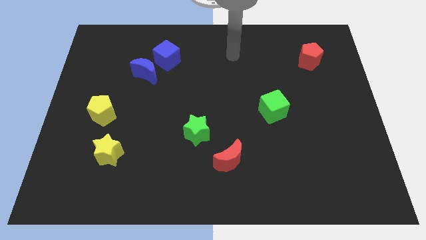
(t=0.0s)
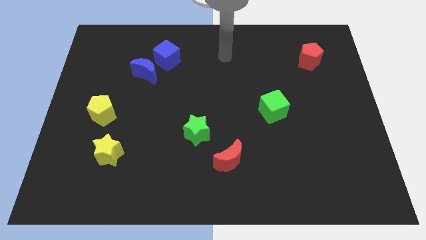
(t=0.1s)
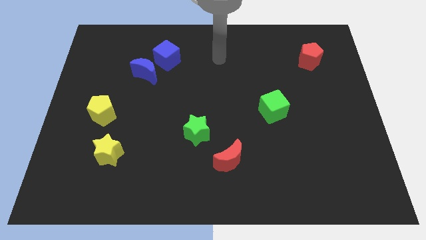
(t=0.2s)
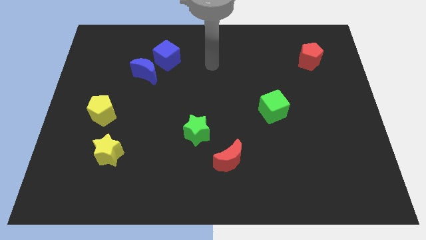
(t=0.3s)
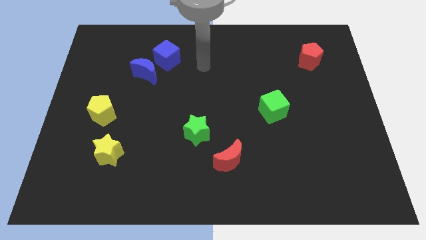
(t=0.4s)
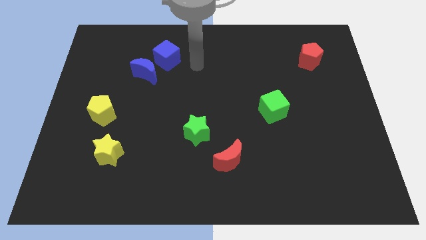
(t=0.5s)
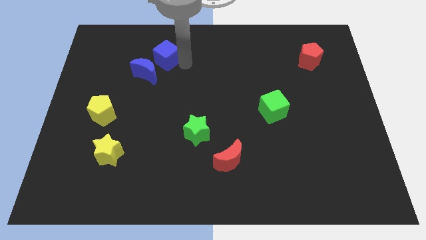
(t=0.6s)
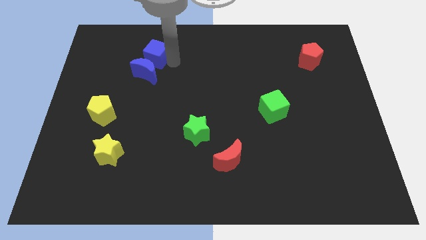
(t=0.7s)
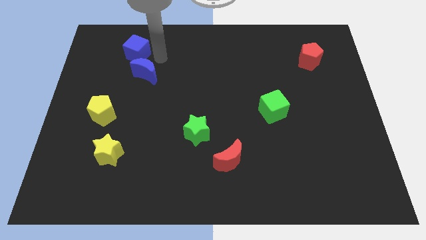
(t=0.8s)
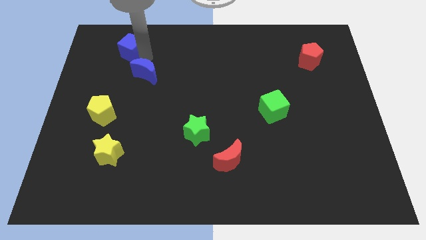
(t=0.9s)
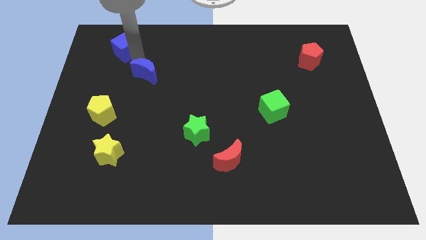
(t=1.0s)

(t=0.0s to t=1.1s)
separate the blue moon from the blue cube

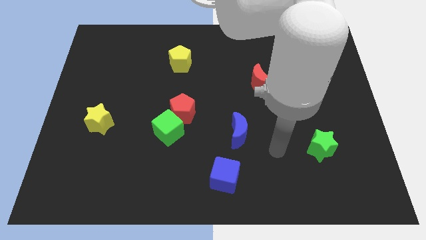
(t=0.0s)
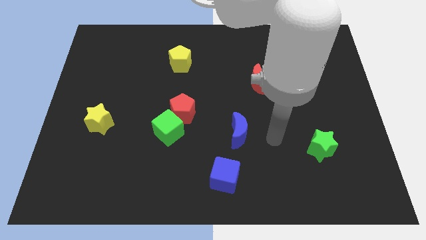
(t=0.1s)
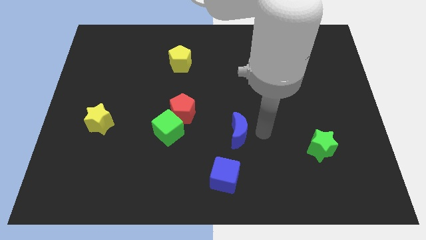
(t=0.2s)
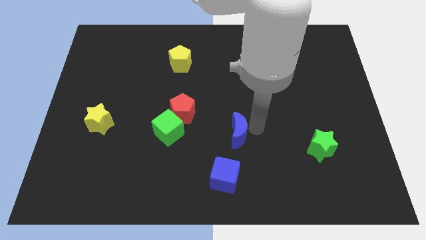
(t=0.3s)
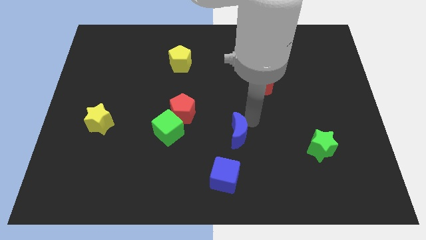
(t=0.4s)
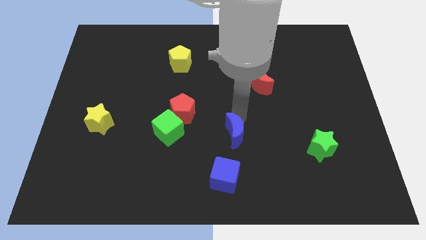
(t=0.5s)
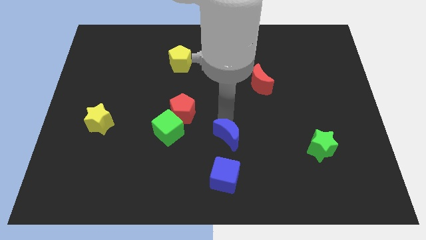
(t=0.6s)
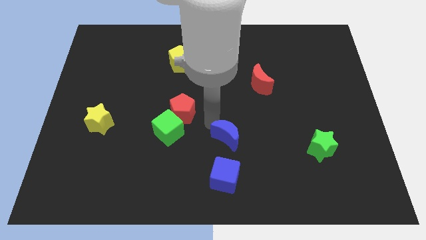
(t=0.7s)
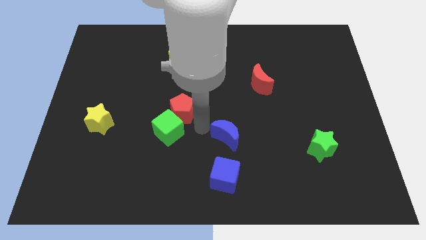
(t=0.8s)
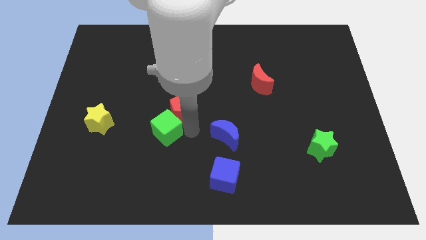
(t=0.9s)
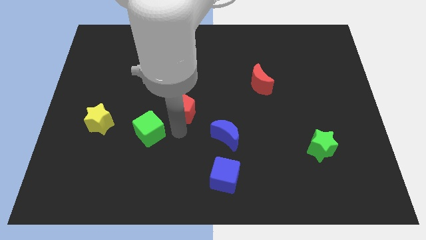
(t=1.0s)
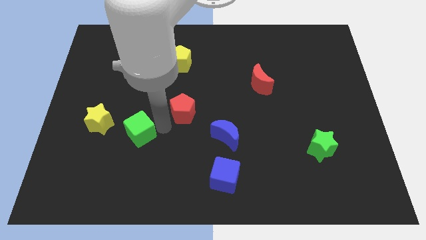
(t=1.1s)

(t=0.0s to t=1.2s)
pull the red pentagon apart from the green cube

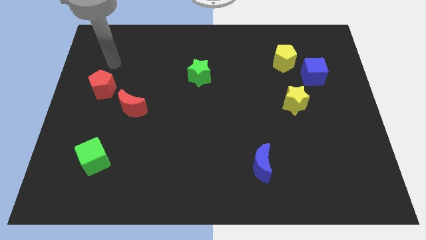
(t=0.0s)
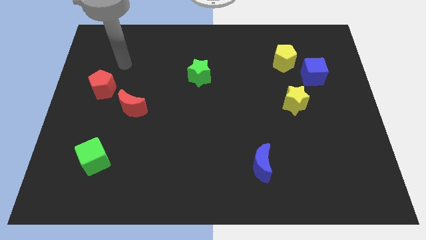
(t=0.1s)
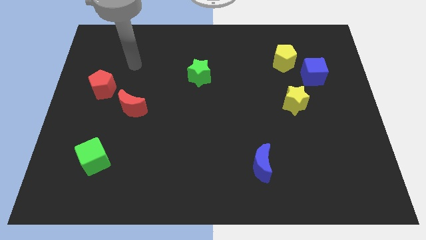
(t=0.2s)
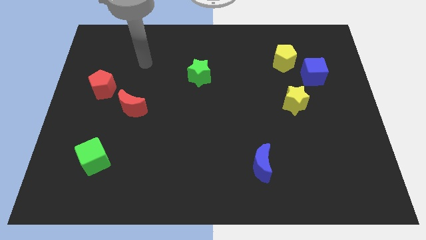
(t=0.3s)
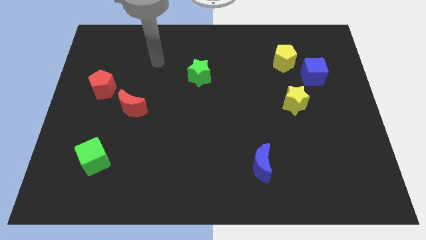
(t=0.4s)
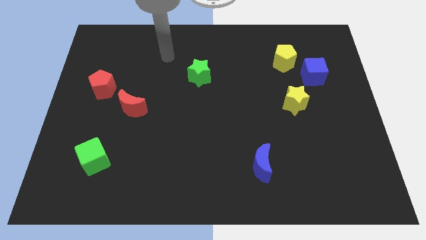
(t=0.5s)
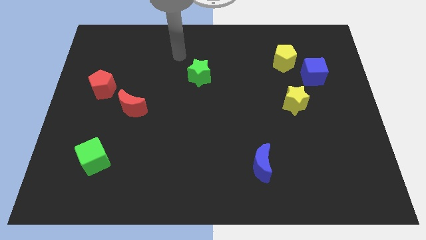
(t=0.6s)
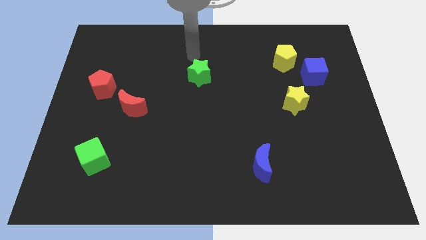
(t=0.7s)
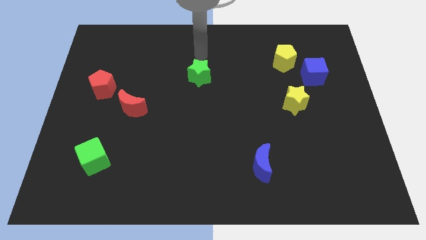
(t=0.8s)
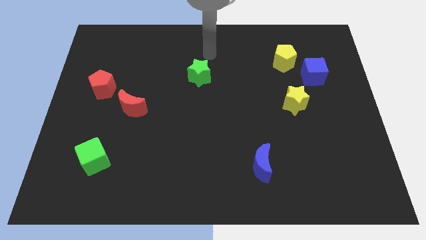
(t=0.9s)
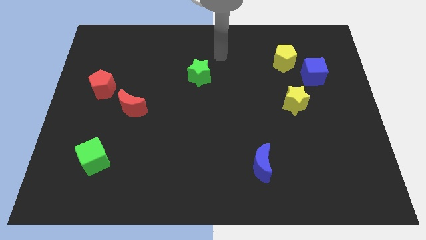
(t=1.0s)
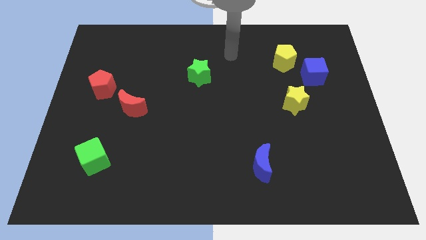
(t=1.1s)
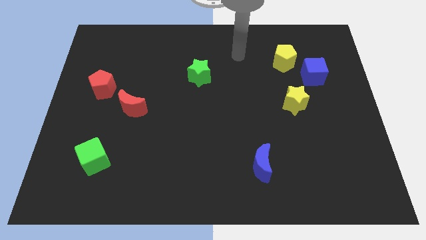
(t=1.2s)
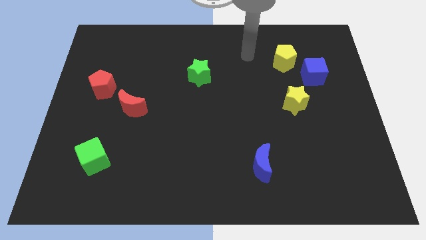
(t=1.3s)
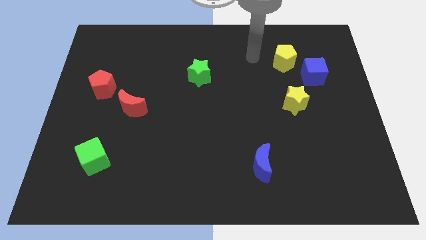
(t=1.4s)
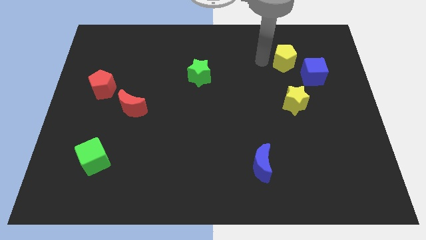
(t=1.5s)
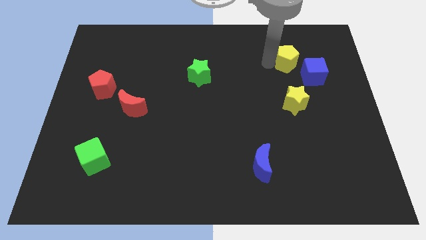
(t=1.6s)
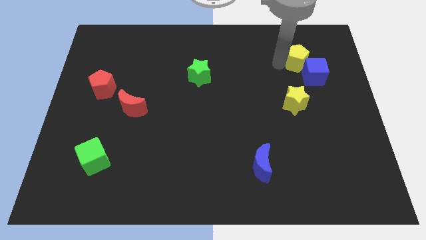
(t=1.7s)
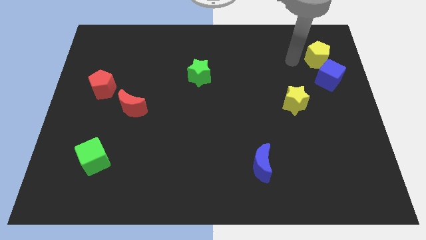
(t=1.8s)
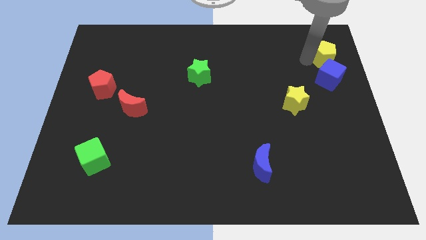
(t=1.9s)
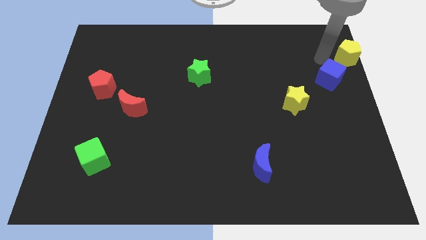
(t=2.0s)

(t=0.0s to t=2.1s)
separate the blue cube from the yellow pentagon

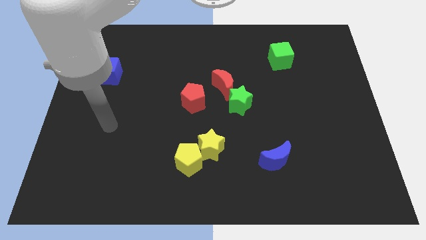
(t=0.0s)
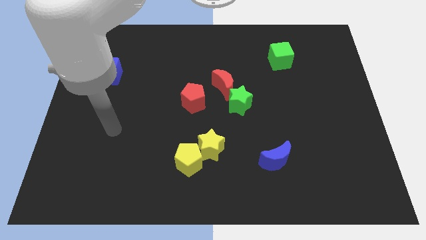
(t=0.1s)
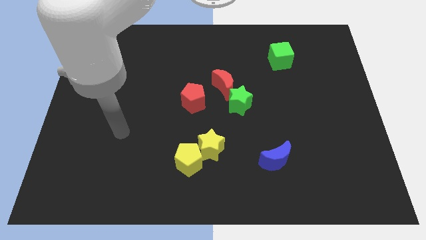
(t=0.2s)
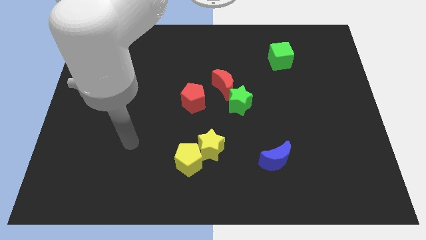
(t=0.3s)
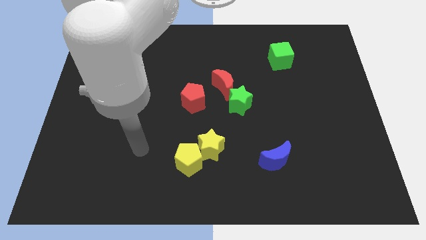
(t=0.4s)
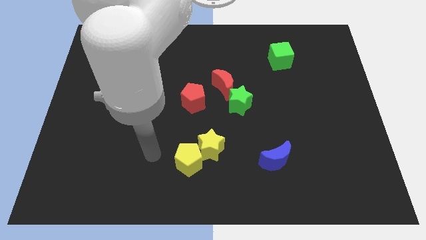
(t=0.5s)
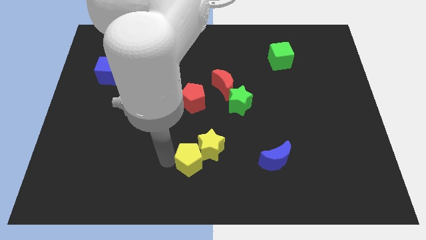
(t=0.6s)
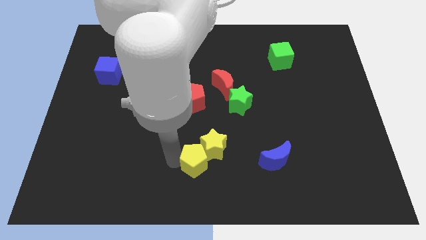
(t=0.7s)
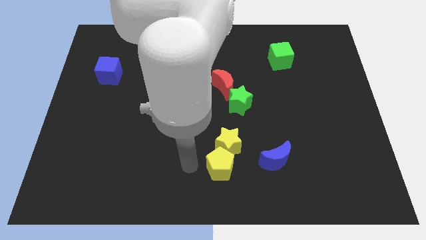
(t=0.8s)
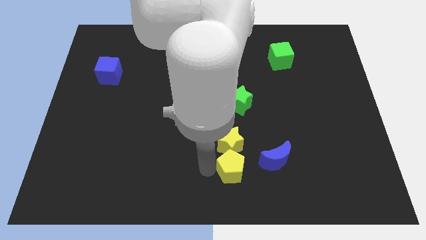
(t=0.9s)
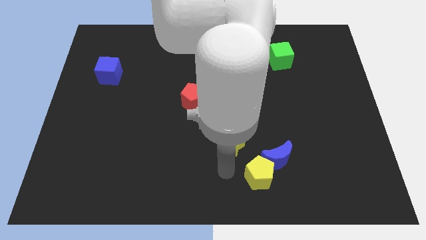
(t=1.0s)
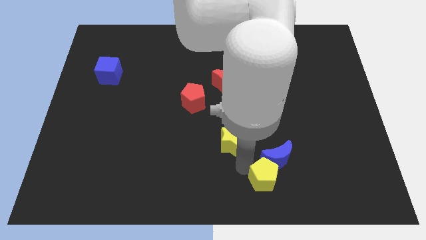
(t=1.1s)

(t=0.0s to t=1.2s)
separate the yellow star from the yellow pentagon

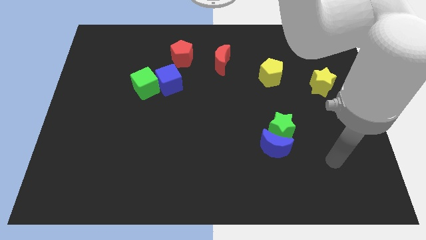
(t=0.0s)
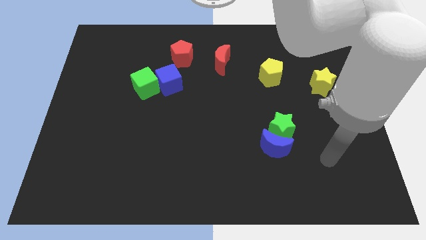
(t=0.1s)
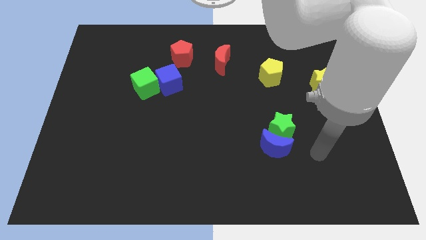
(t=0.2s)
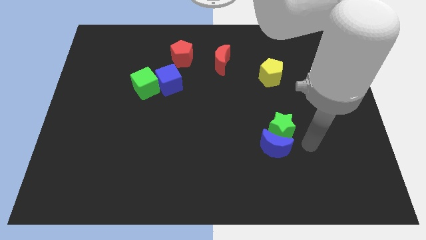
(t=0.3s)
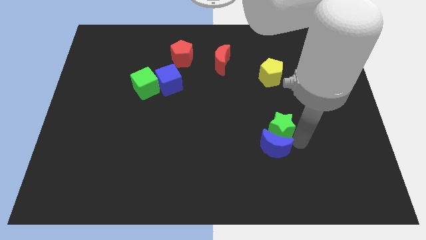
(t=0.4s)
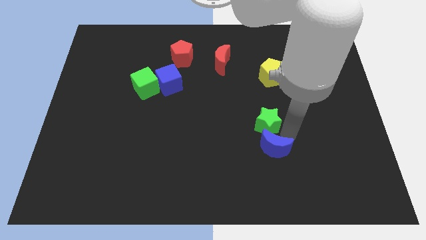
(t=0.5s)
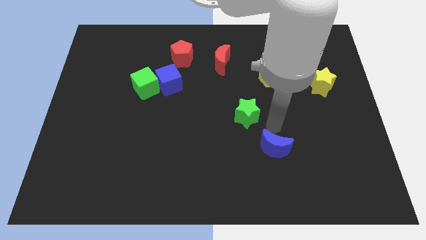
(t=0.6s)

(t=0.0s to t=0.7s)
pull the blue moon apart from the green star

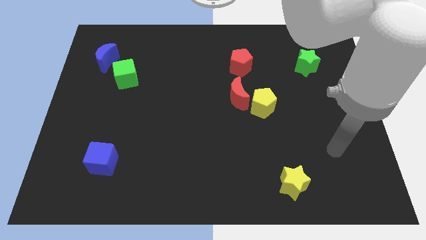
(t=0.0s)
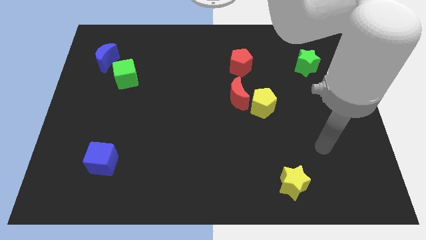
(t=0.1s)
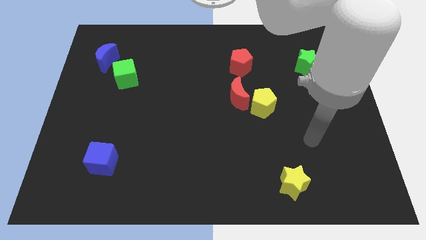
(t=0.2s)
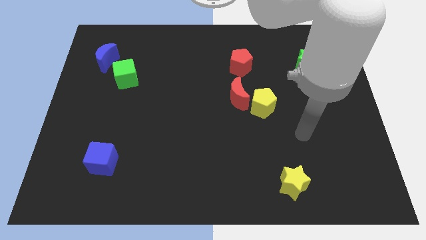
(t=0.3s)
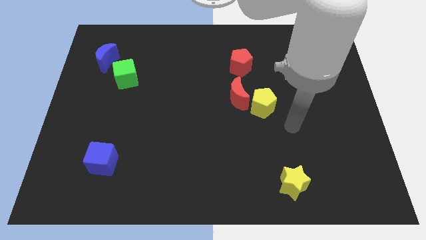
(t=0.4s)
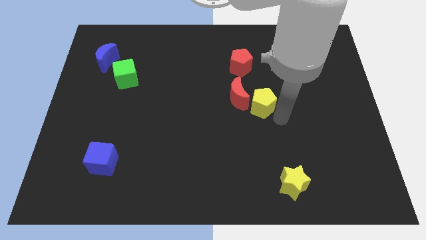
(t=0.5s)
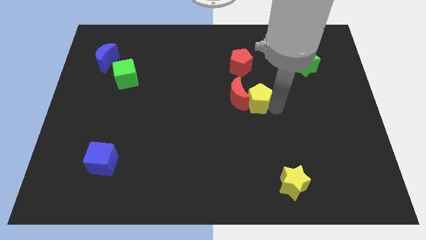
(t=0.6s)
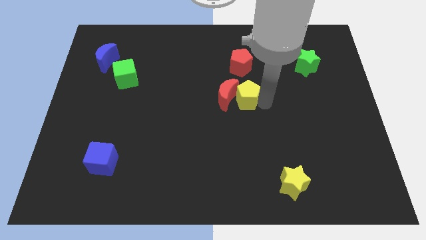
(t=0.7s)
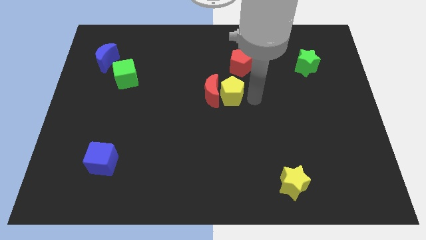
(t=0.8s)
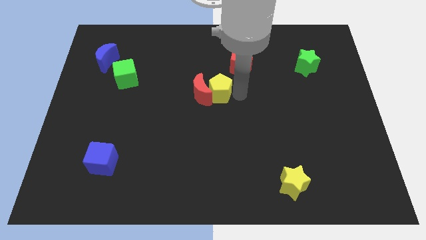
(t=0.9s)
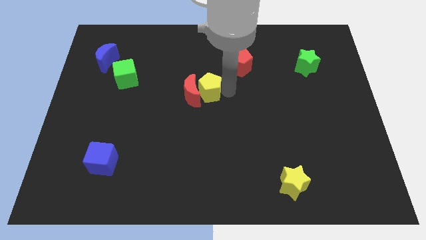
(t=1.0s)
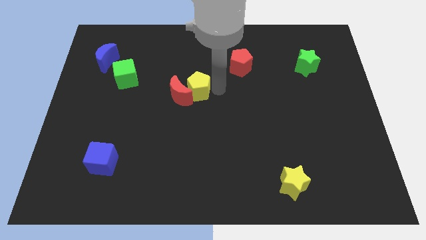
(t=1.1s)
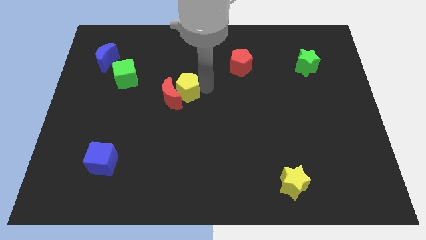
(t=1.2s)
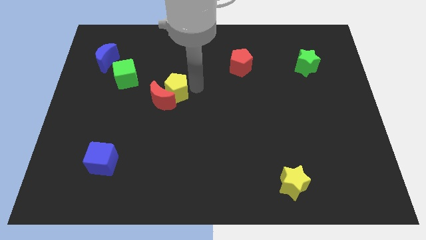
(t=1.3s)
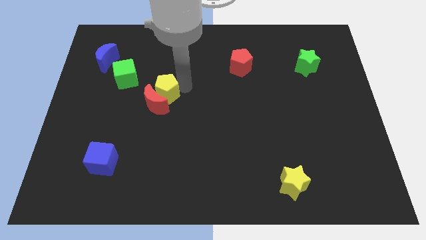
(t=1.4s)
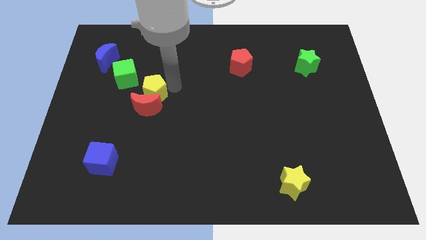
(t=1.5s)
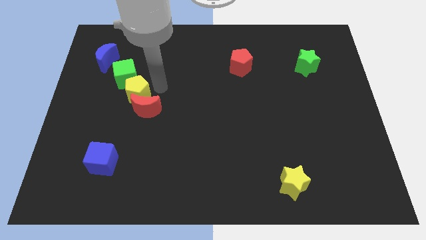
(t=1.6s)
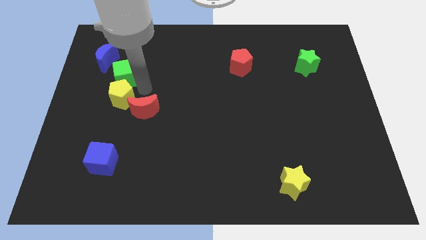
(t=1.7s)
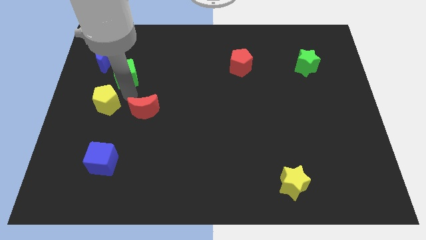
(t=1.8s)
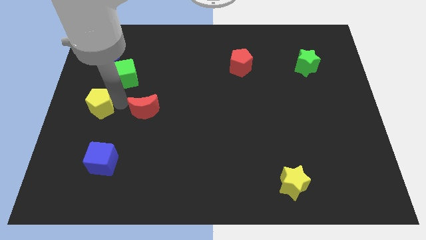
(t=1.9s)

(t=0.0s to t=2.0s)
separate the red moon from the yellow pentagon

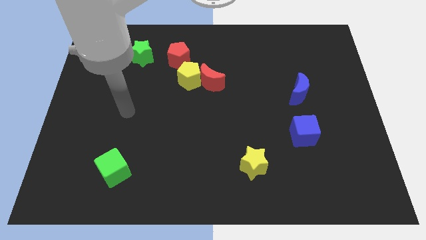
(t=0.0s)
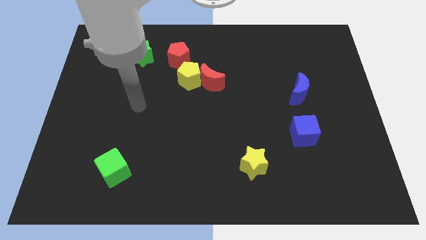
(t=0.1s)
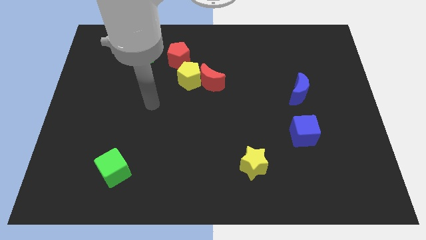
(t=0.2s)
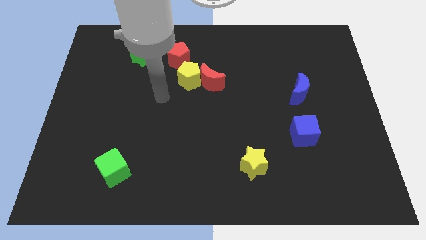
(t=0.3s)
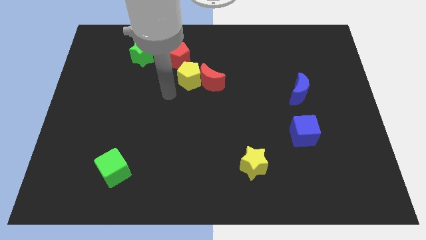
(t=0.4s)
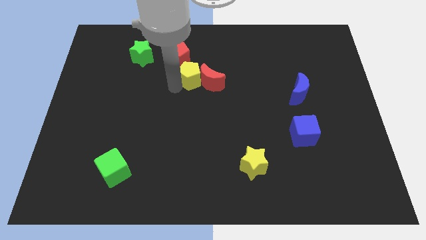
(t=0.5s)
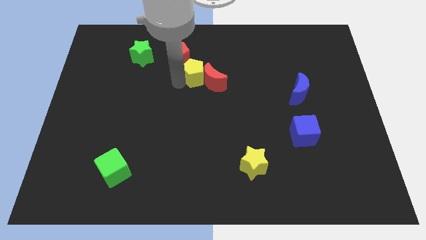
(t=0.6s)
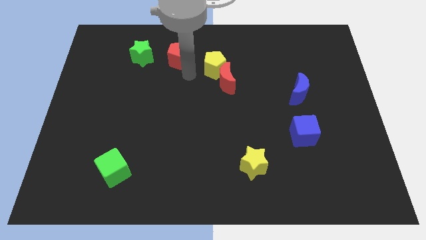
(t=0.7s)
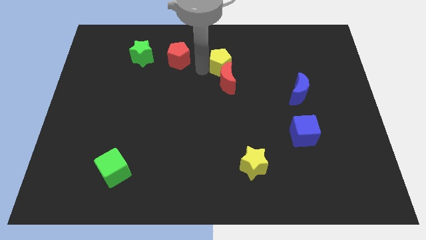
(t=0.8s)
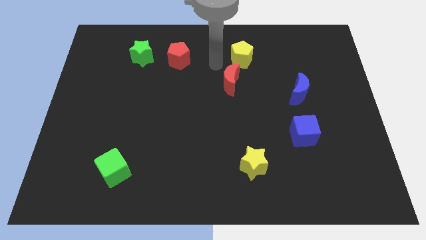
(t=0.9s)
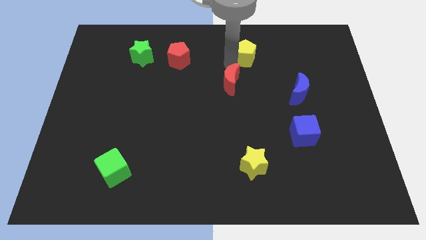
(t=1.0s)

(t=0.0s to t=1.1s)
pull the red moon apart from the yellow pentagon
